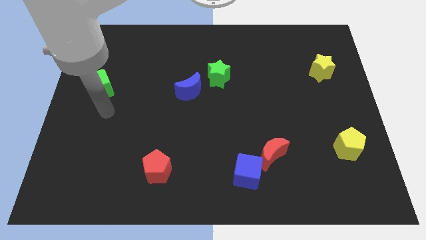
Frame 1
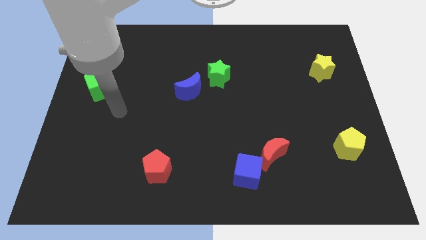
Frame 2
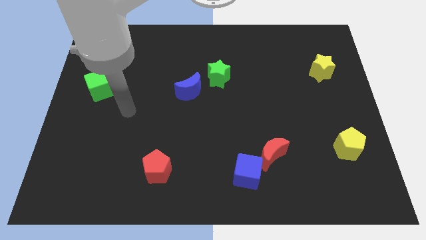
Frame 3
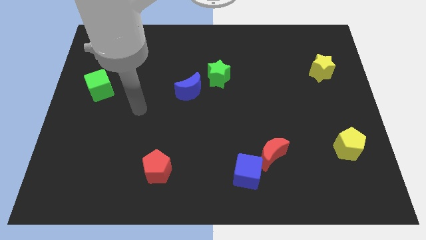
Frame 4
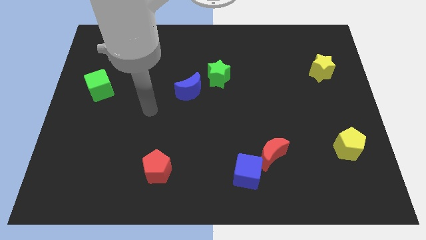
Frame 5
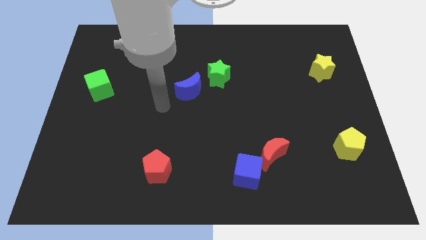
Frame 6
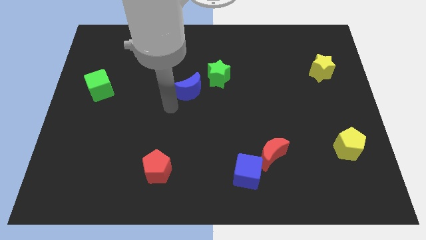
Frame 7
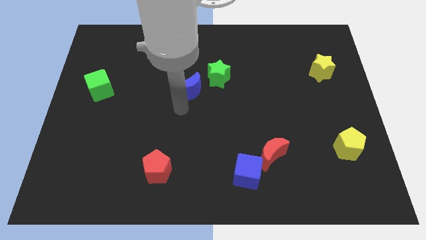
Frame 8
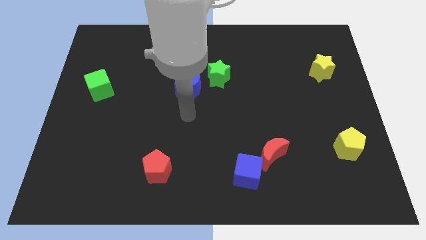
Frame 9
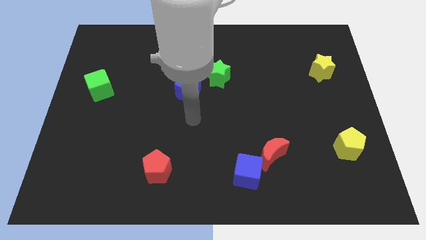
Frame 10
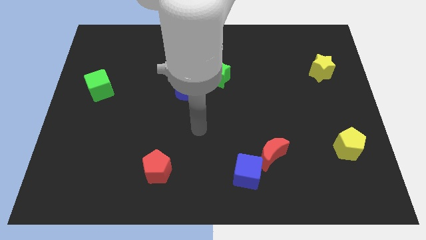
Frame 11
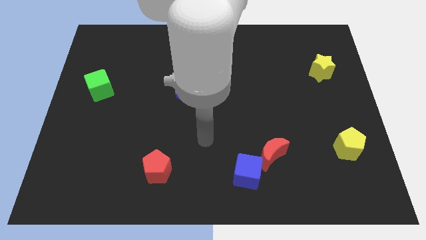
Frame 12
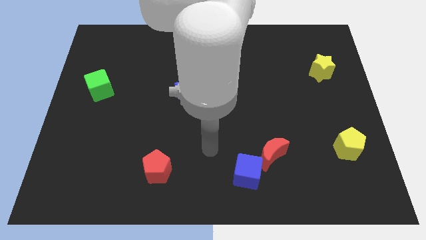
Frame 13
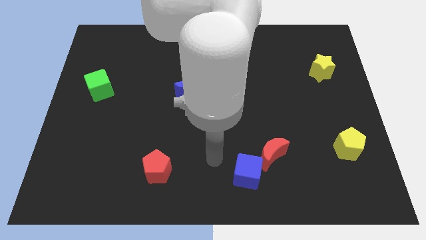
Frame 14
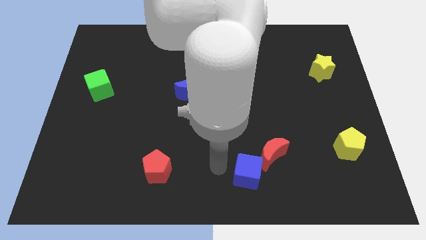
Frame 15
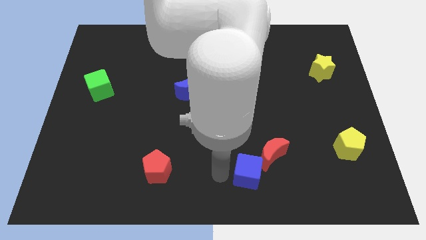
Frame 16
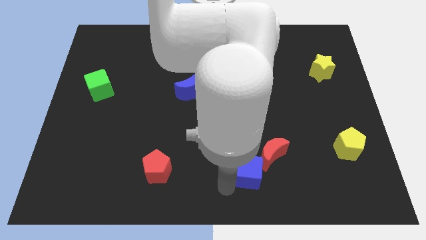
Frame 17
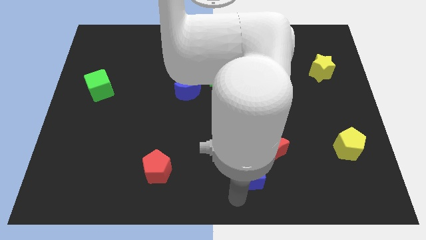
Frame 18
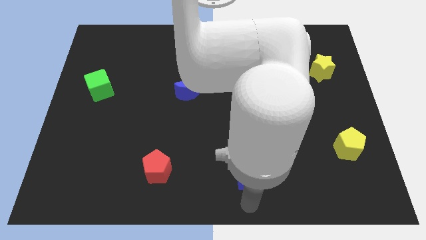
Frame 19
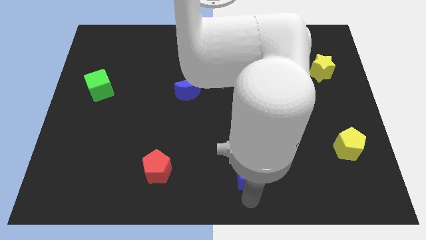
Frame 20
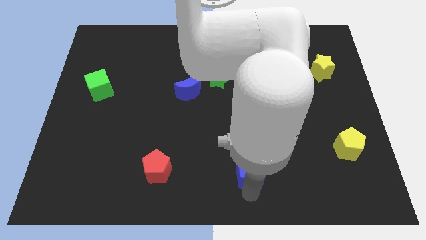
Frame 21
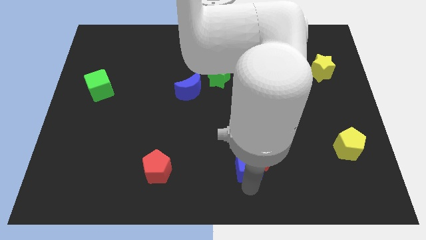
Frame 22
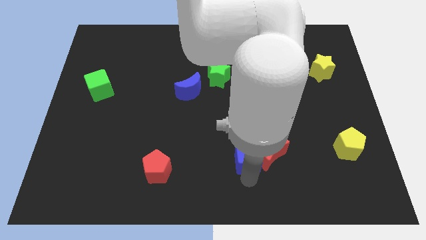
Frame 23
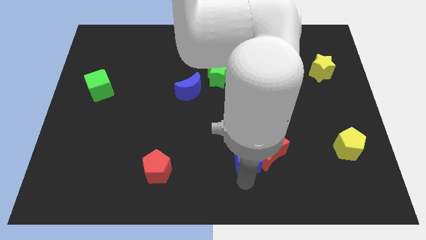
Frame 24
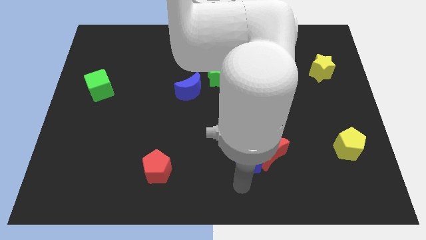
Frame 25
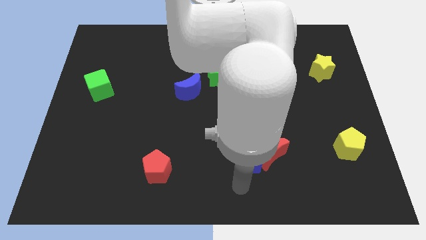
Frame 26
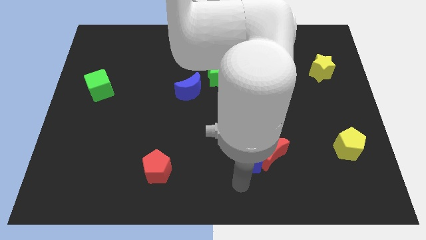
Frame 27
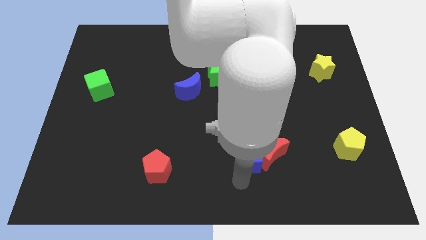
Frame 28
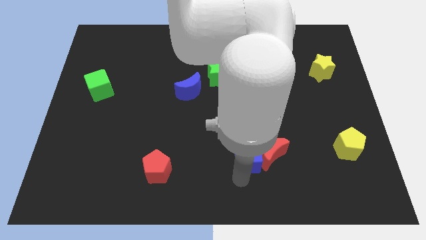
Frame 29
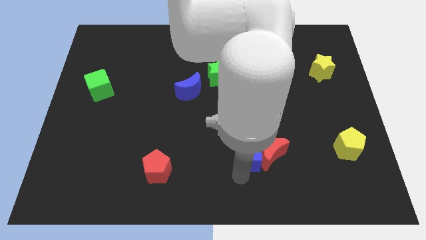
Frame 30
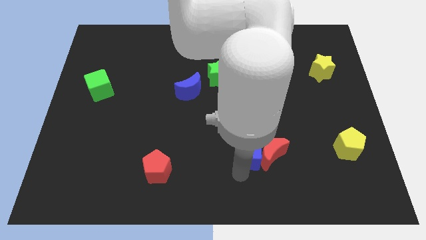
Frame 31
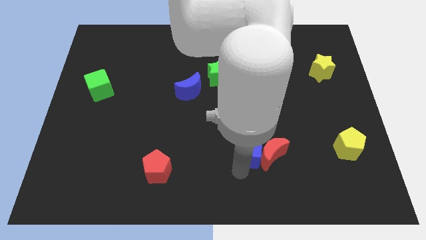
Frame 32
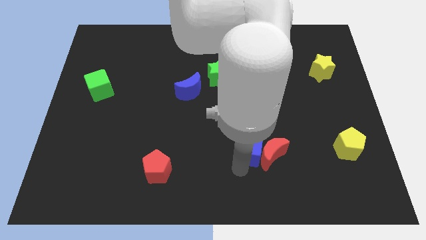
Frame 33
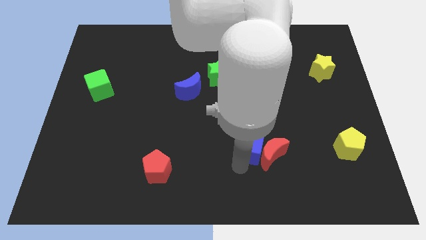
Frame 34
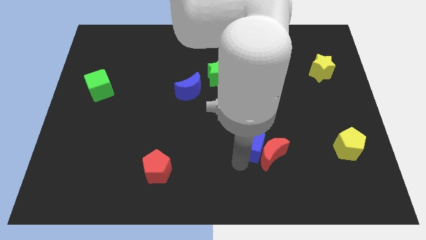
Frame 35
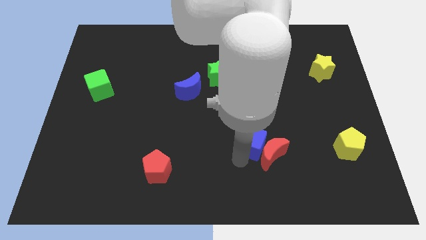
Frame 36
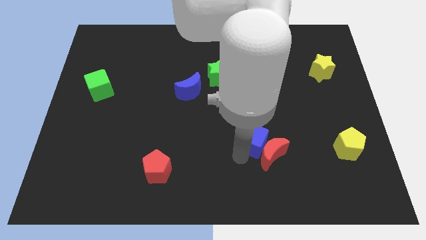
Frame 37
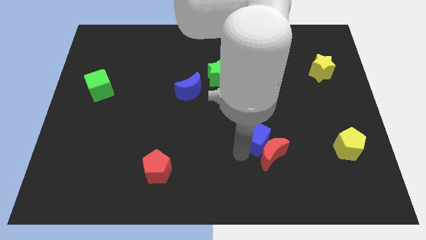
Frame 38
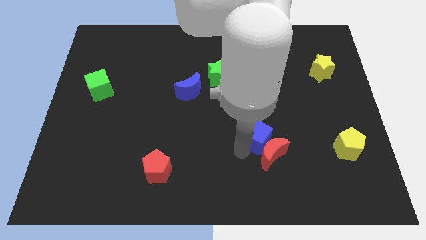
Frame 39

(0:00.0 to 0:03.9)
push the blue cube up and right diagonally a little

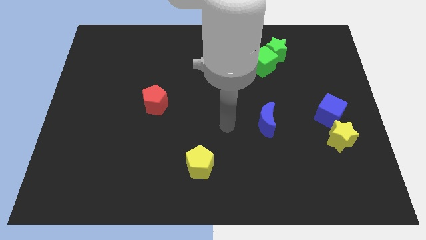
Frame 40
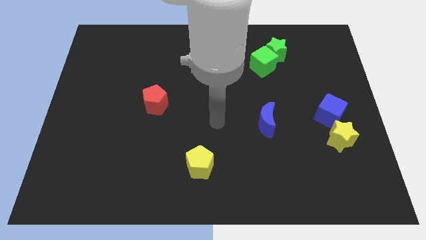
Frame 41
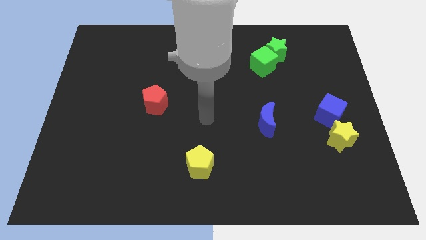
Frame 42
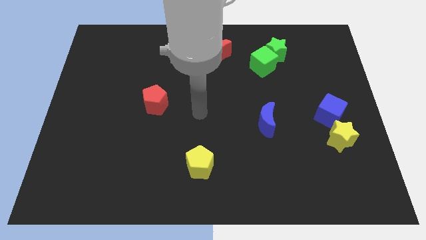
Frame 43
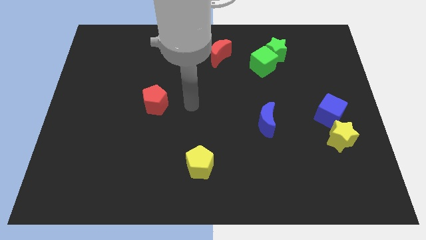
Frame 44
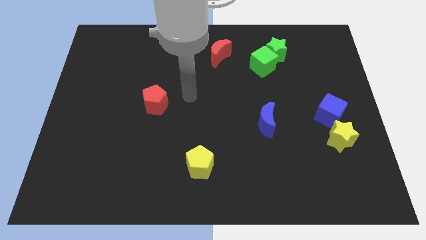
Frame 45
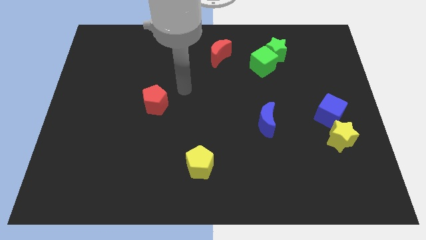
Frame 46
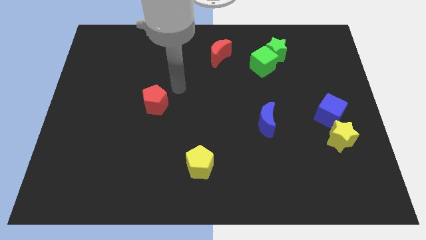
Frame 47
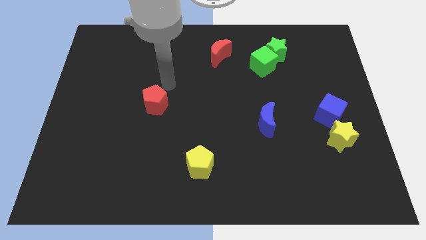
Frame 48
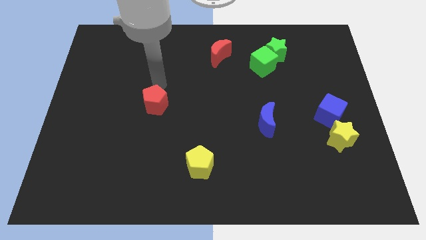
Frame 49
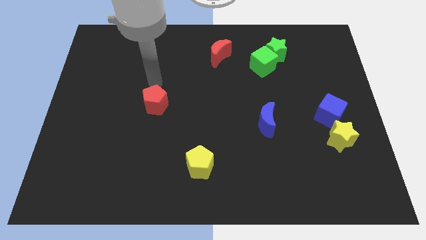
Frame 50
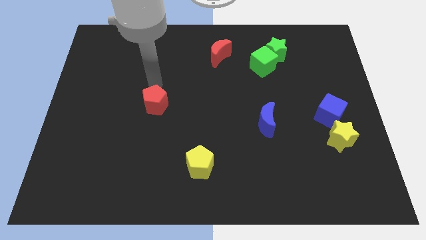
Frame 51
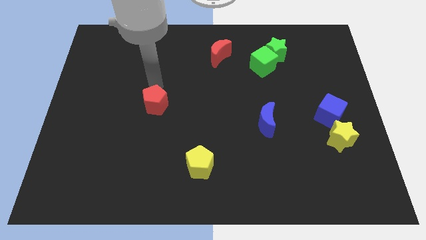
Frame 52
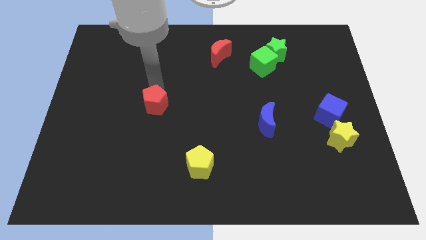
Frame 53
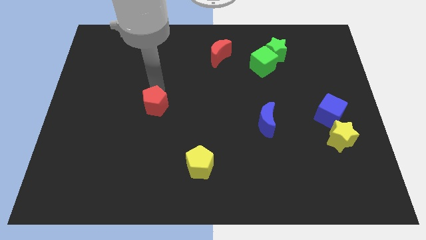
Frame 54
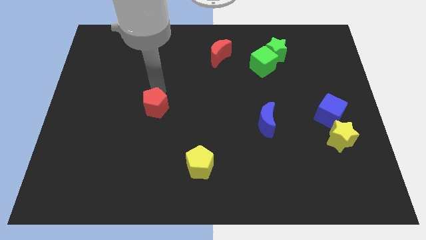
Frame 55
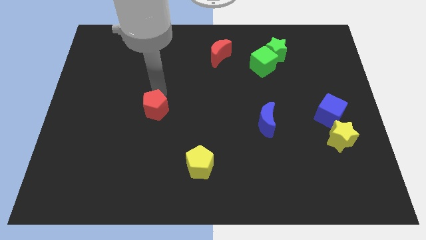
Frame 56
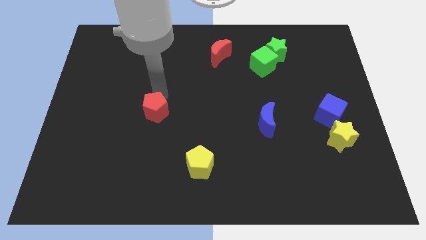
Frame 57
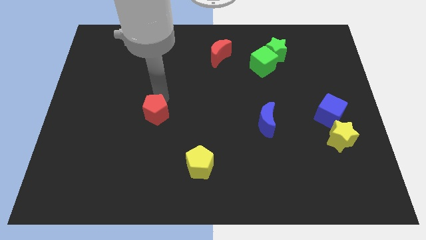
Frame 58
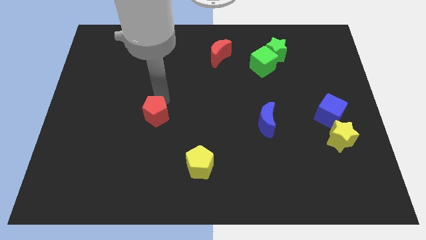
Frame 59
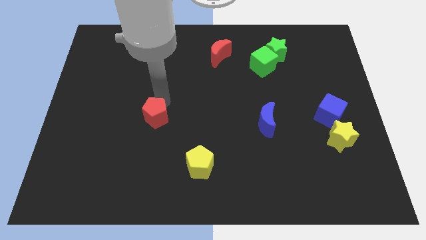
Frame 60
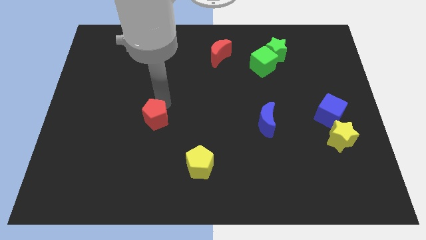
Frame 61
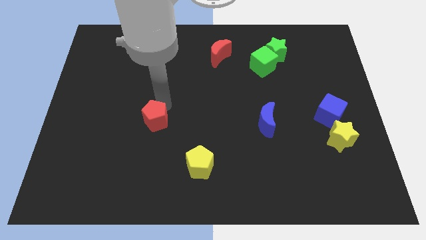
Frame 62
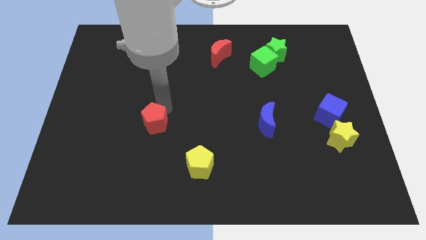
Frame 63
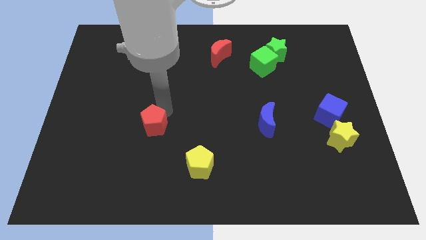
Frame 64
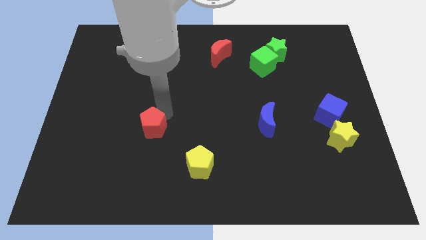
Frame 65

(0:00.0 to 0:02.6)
push the red pentagon downwards slightly

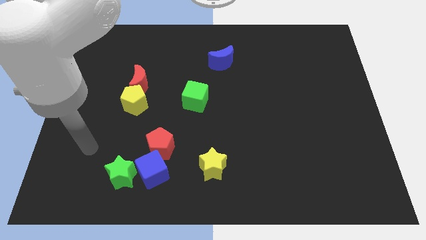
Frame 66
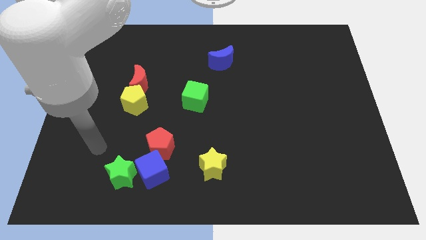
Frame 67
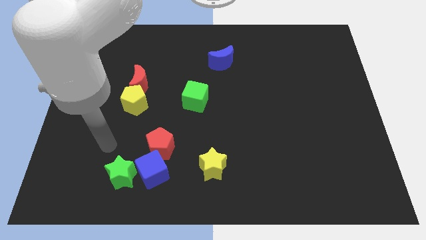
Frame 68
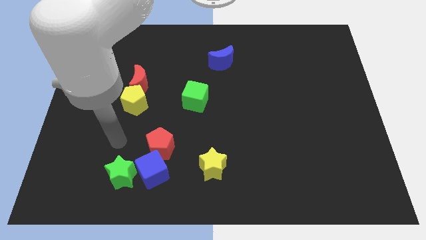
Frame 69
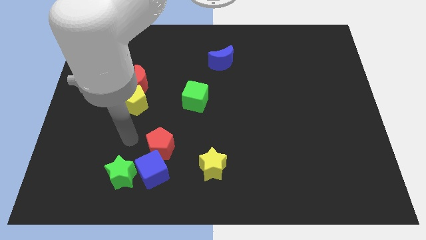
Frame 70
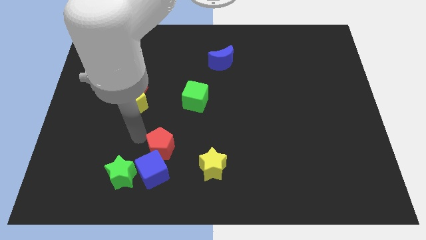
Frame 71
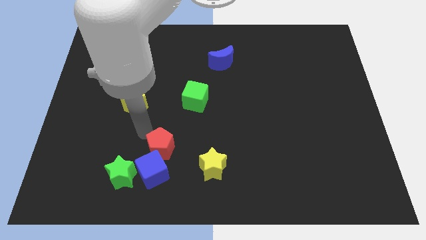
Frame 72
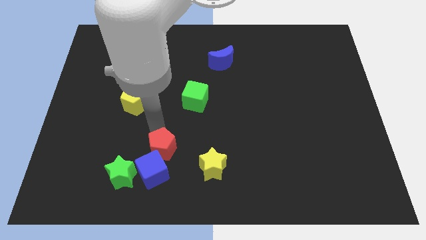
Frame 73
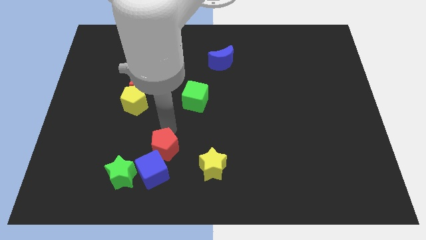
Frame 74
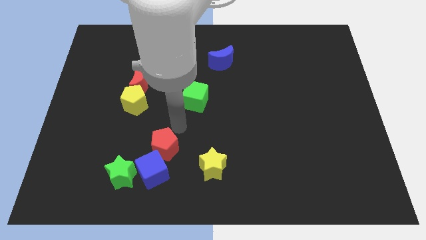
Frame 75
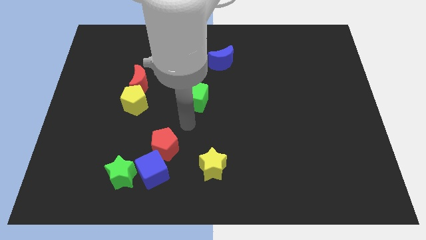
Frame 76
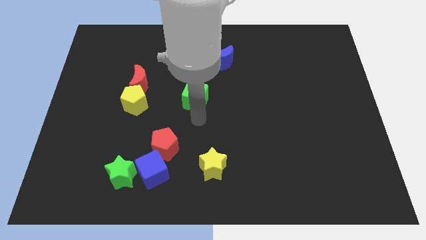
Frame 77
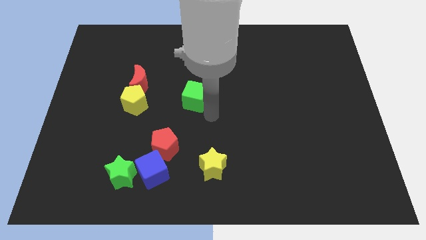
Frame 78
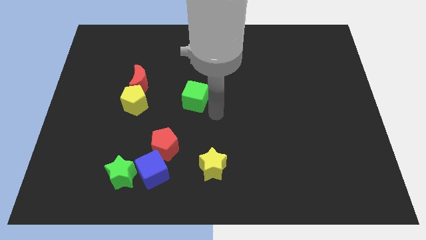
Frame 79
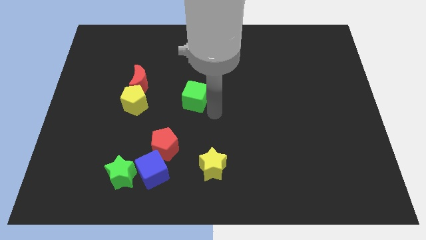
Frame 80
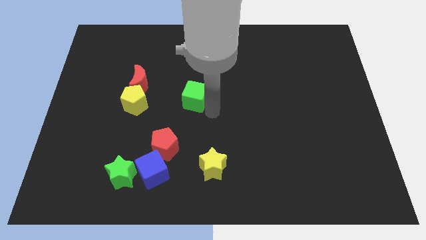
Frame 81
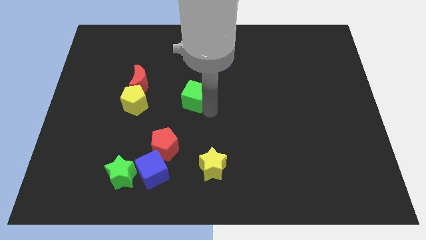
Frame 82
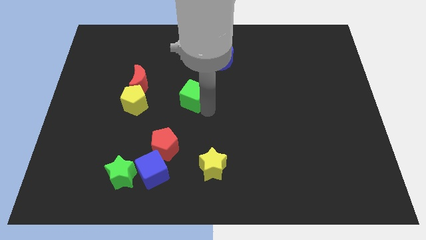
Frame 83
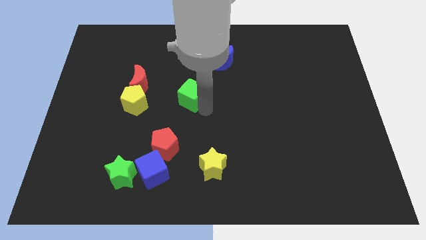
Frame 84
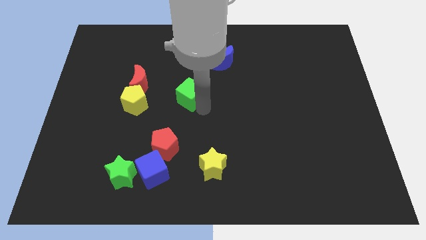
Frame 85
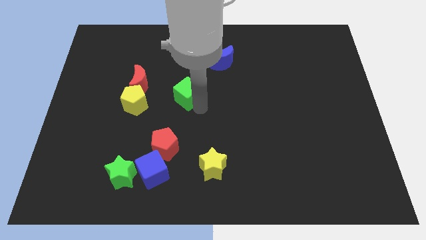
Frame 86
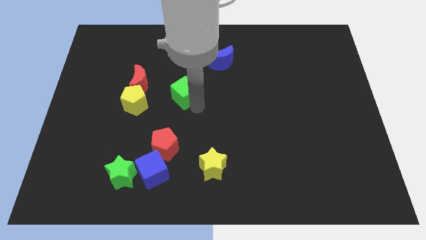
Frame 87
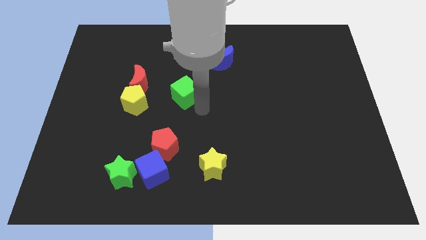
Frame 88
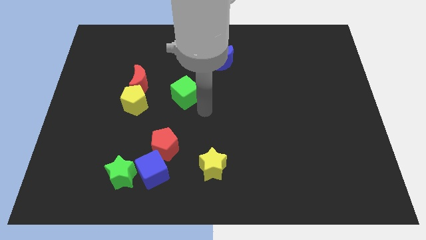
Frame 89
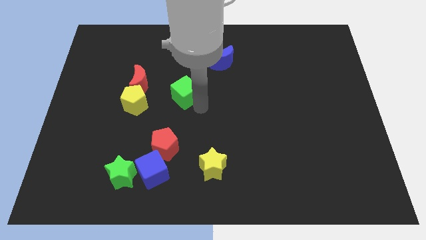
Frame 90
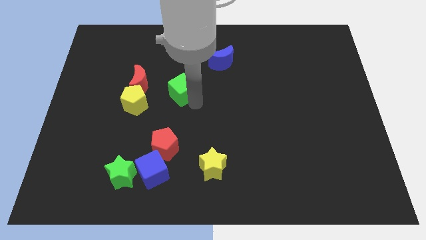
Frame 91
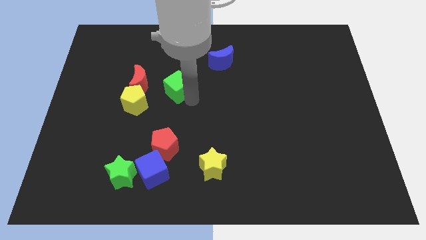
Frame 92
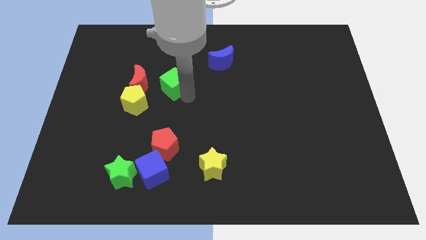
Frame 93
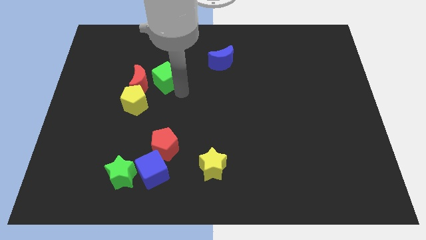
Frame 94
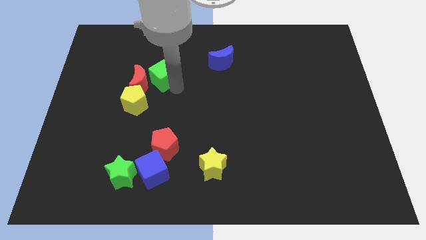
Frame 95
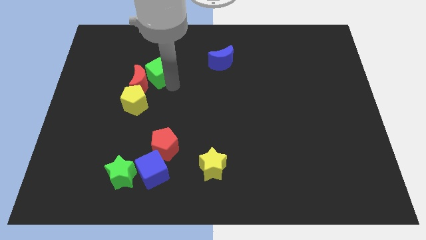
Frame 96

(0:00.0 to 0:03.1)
slightly push the green cube to the left
